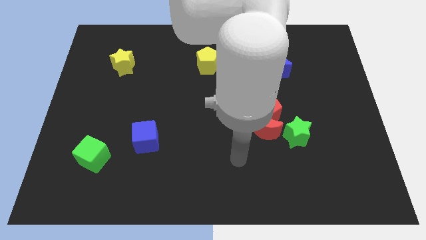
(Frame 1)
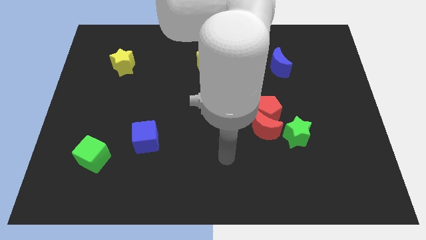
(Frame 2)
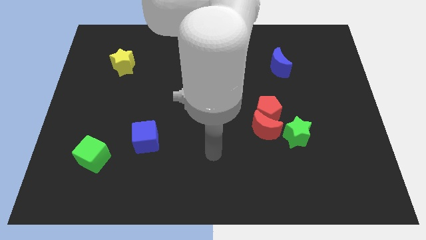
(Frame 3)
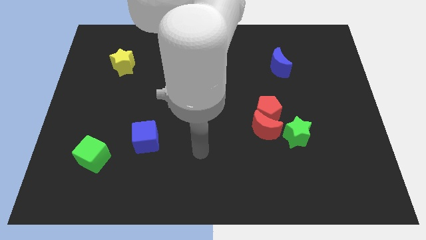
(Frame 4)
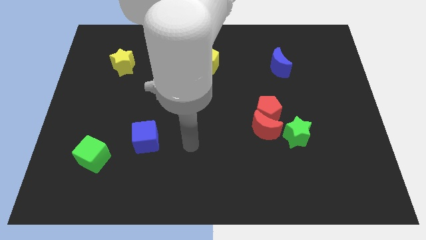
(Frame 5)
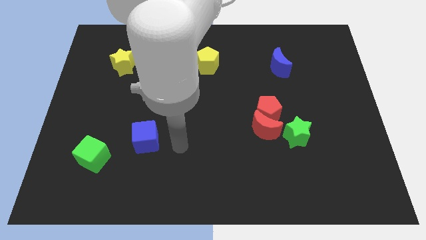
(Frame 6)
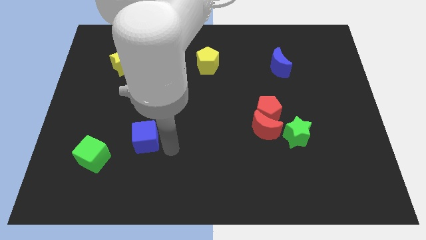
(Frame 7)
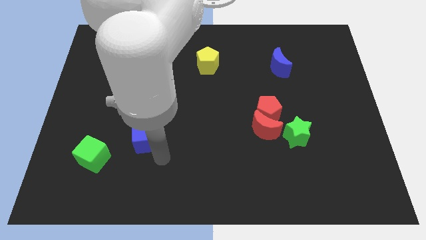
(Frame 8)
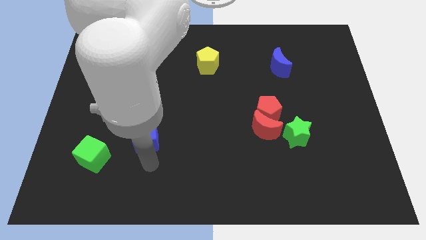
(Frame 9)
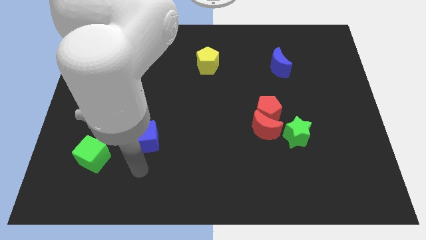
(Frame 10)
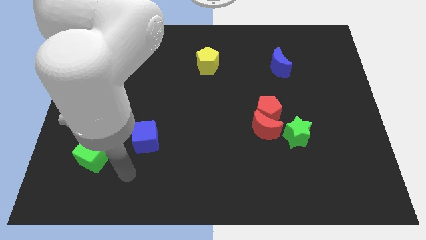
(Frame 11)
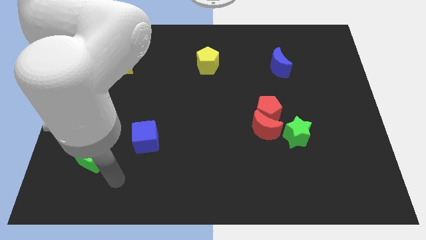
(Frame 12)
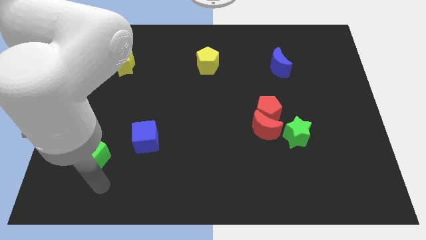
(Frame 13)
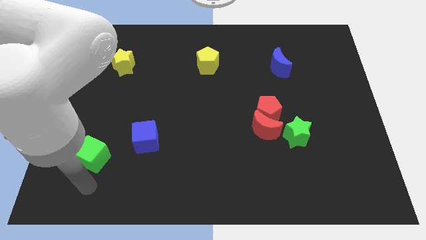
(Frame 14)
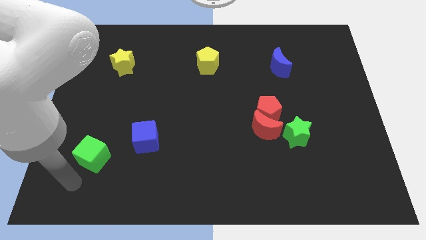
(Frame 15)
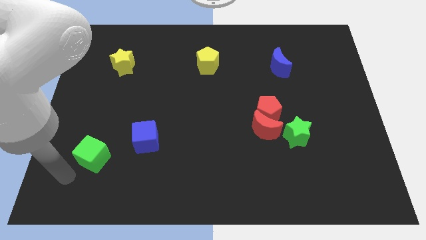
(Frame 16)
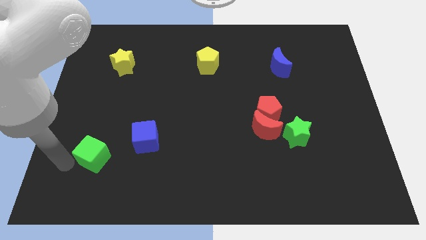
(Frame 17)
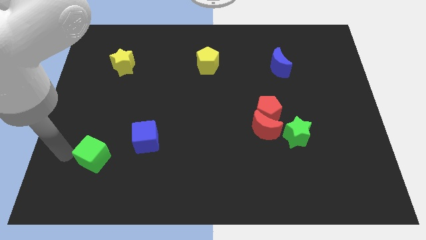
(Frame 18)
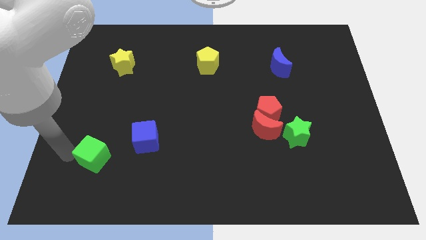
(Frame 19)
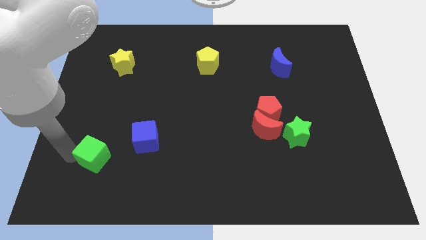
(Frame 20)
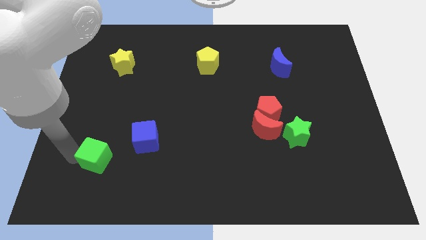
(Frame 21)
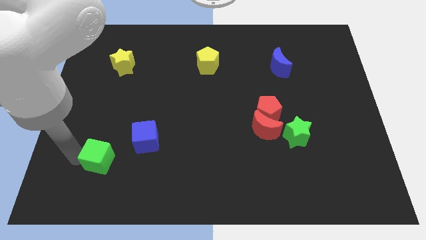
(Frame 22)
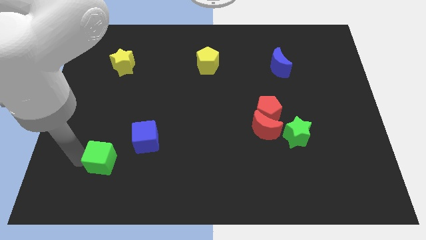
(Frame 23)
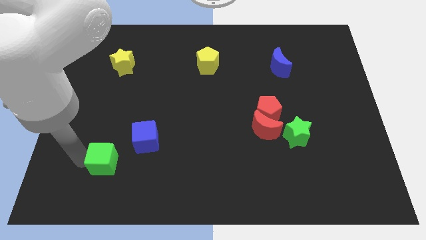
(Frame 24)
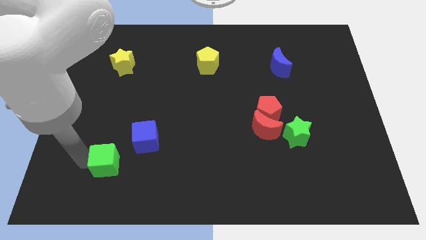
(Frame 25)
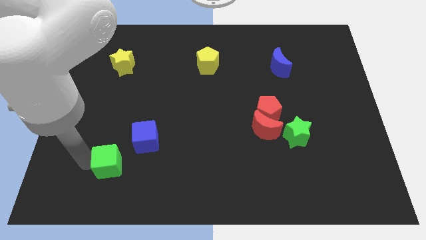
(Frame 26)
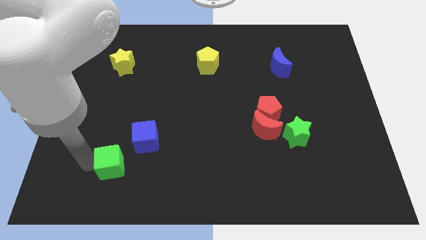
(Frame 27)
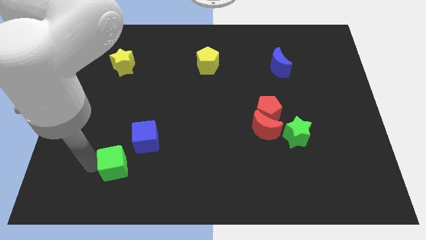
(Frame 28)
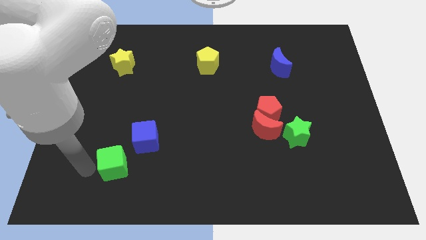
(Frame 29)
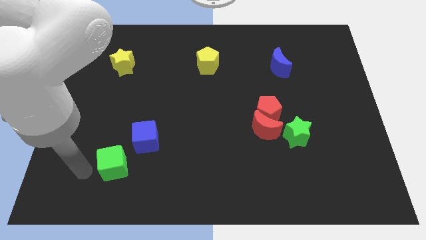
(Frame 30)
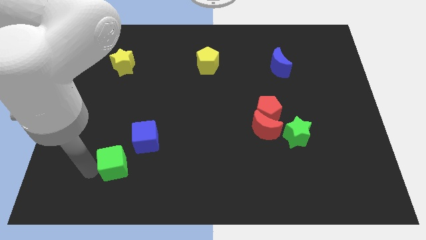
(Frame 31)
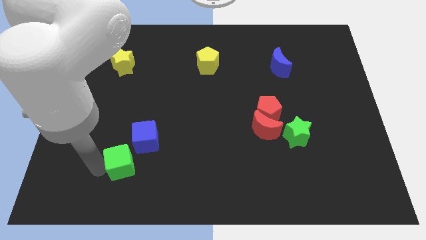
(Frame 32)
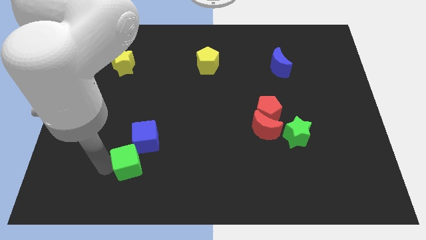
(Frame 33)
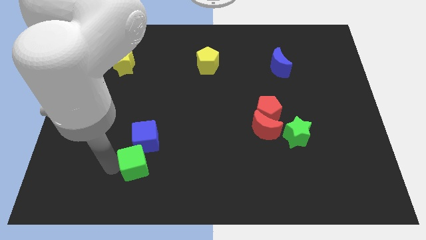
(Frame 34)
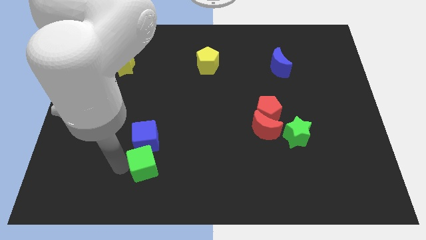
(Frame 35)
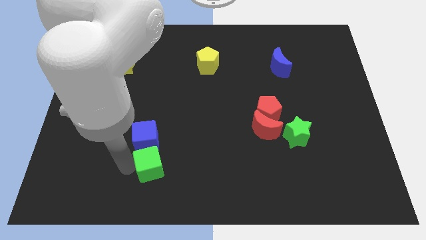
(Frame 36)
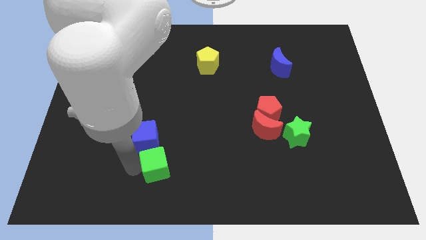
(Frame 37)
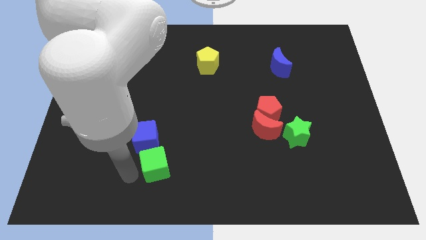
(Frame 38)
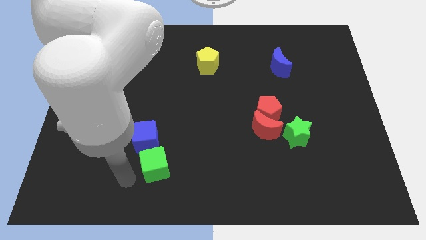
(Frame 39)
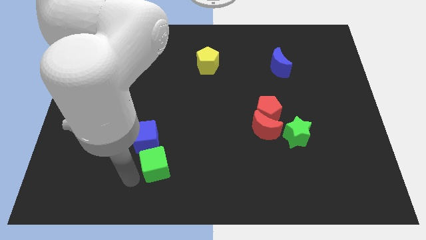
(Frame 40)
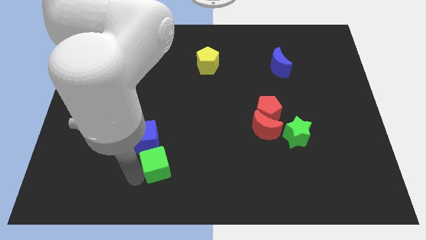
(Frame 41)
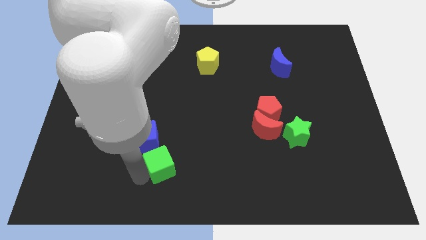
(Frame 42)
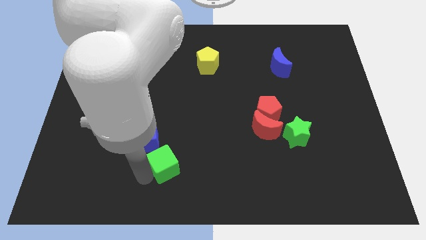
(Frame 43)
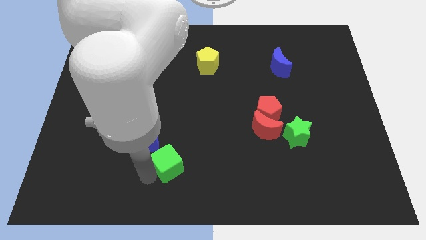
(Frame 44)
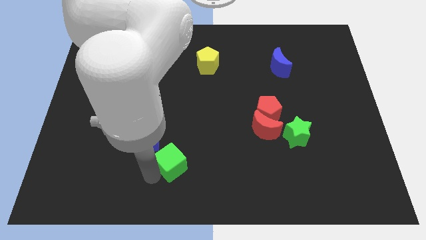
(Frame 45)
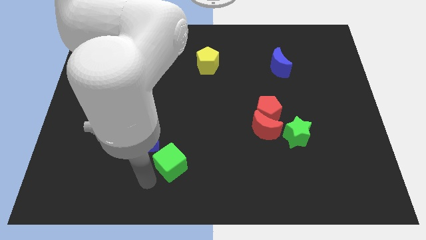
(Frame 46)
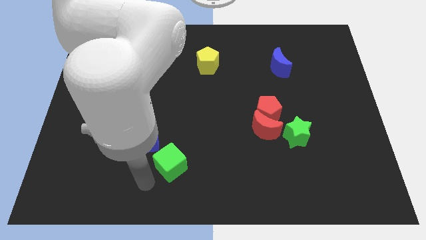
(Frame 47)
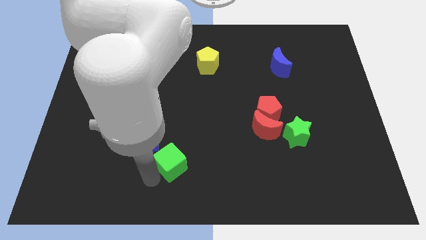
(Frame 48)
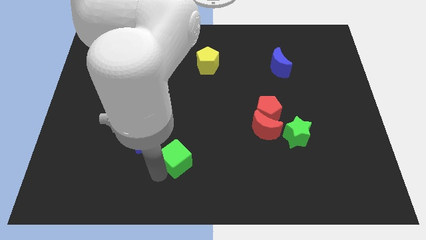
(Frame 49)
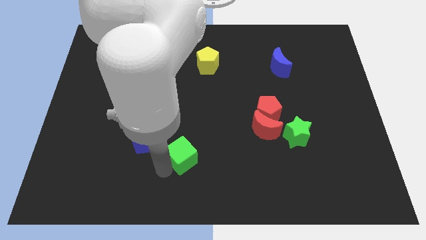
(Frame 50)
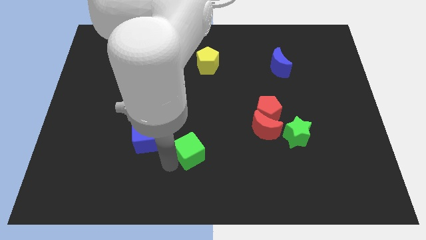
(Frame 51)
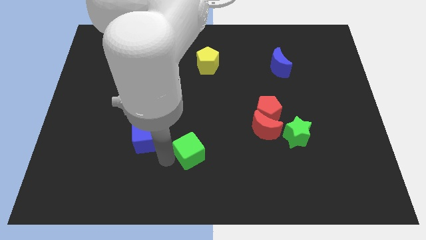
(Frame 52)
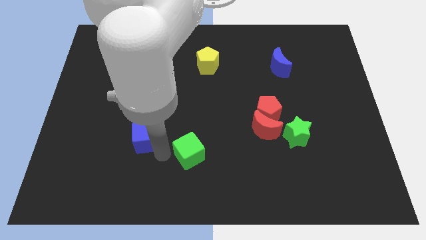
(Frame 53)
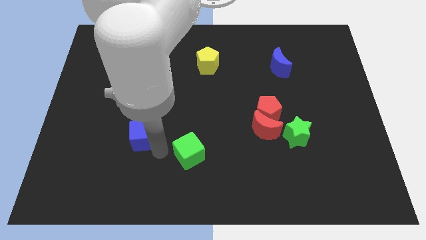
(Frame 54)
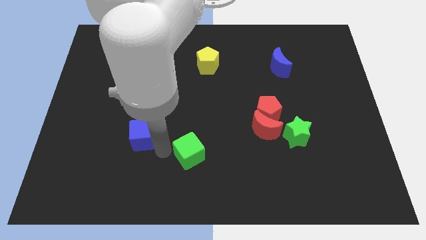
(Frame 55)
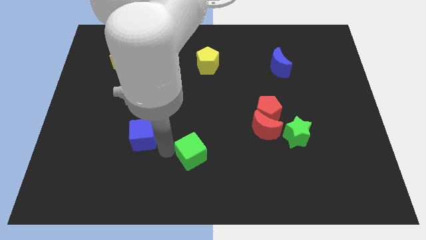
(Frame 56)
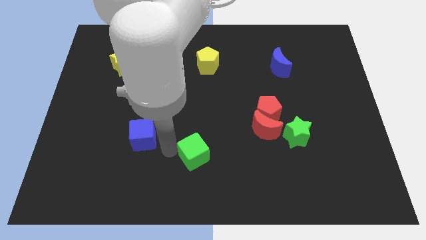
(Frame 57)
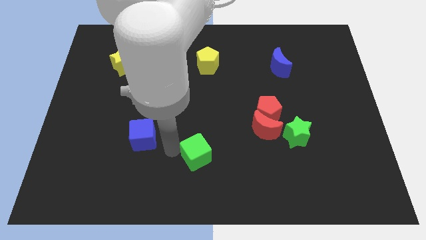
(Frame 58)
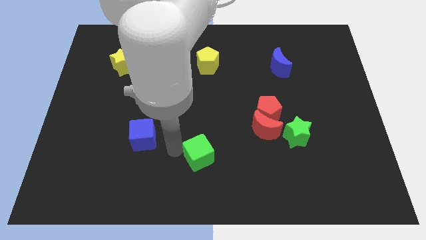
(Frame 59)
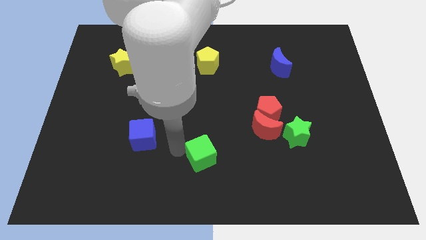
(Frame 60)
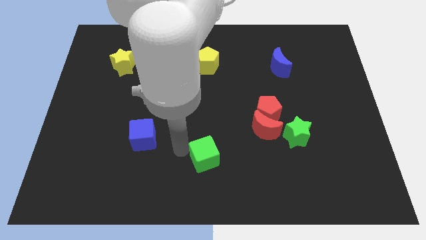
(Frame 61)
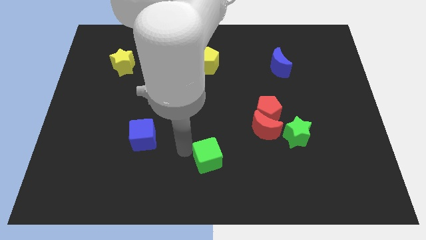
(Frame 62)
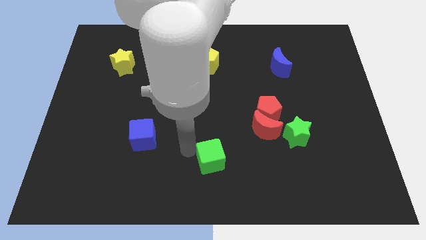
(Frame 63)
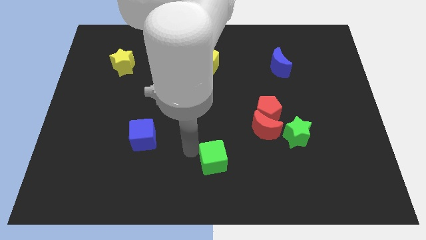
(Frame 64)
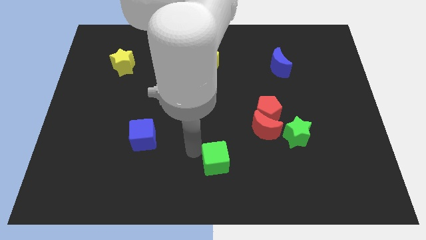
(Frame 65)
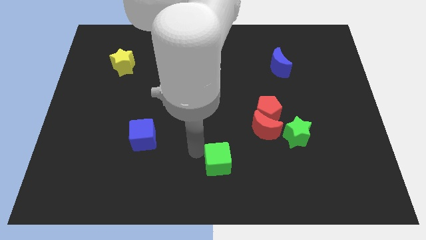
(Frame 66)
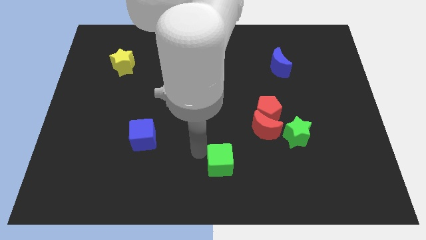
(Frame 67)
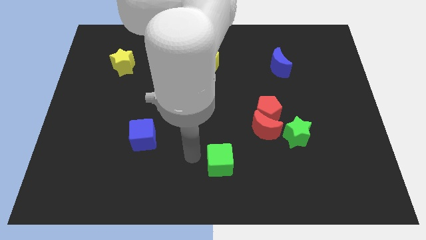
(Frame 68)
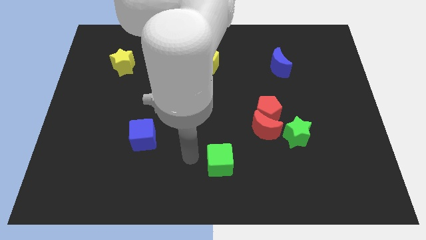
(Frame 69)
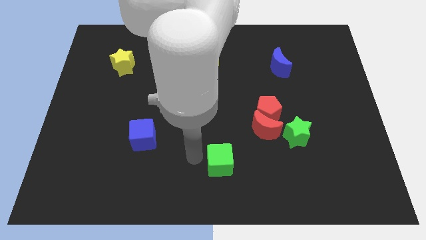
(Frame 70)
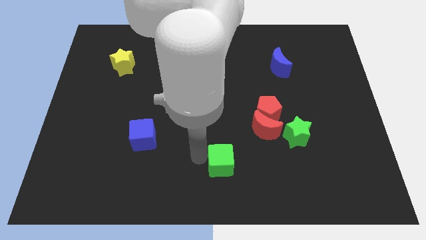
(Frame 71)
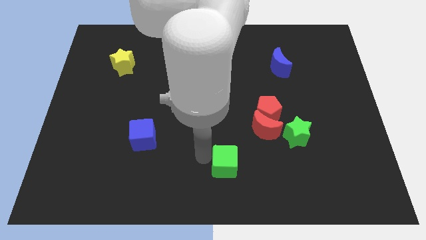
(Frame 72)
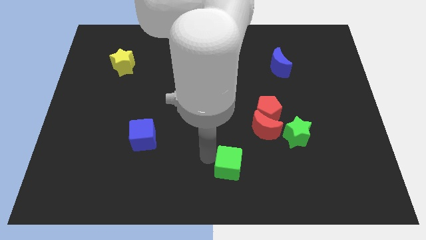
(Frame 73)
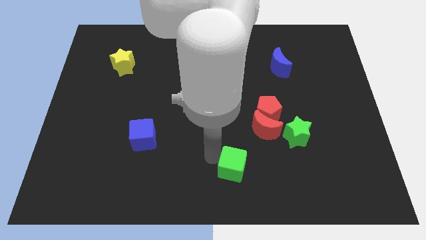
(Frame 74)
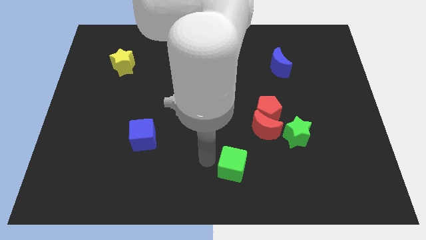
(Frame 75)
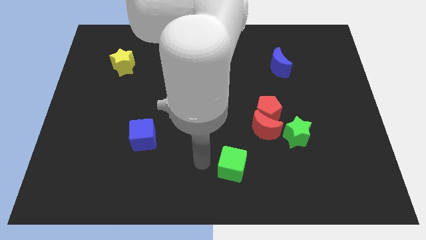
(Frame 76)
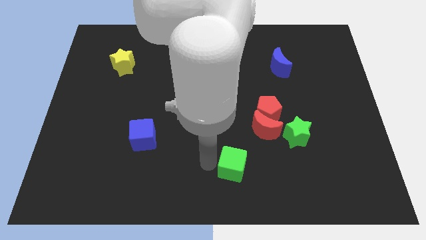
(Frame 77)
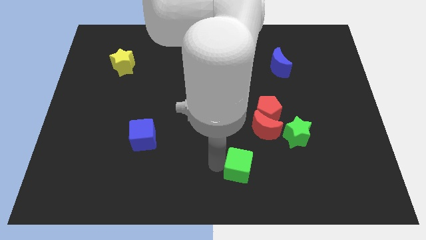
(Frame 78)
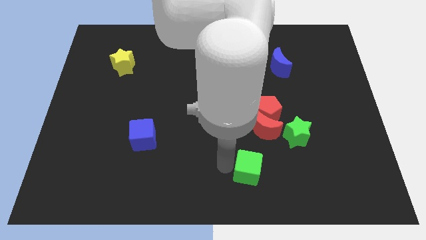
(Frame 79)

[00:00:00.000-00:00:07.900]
slide the green cube to the bottom side of the red moon
